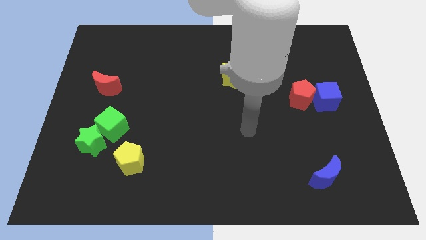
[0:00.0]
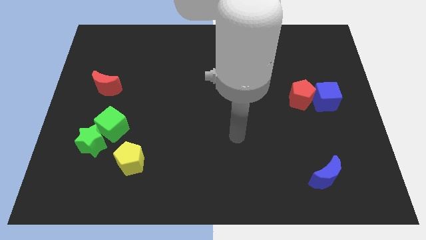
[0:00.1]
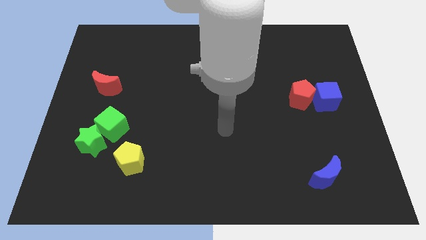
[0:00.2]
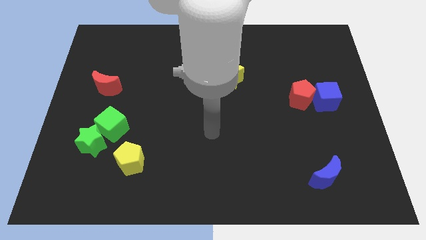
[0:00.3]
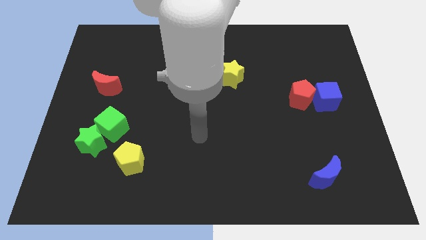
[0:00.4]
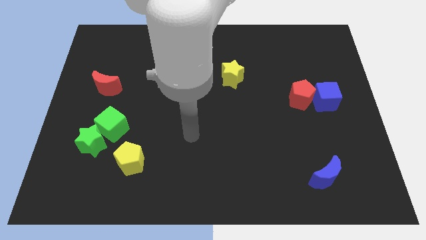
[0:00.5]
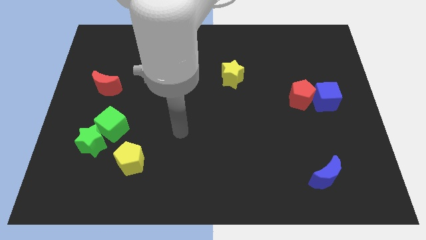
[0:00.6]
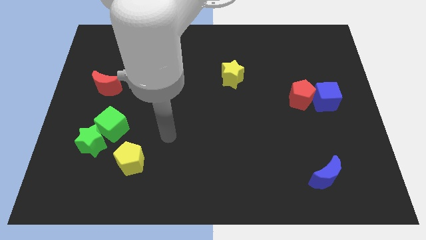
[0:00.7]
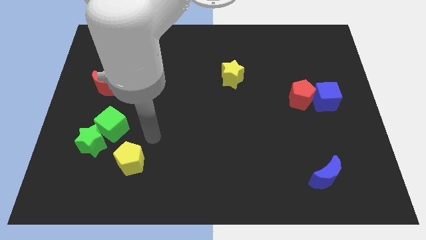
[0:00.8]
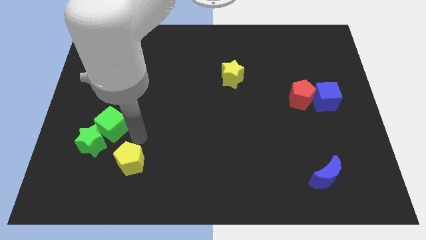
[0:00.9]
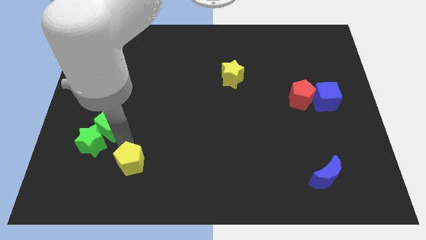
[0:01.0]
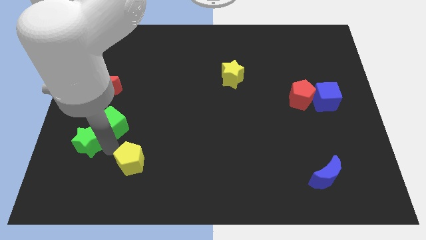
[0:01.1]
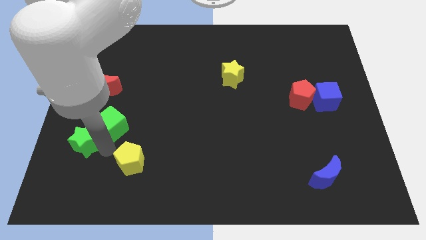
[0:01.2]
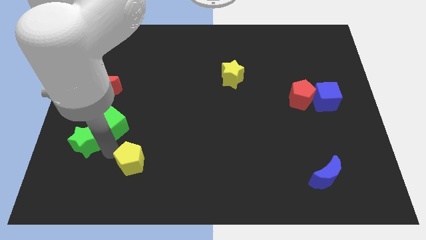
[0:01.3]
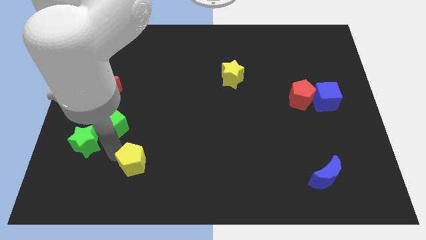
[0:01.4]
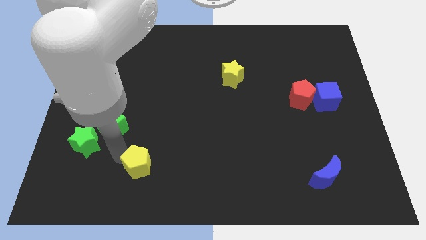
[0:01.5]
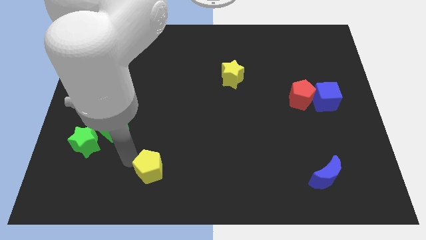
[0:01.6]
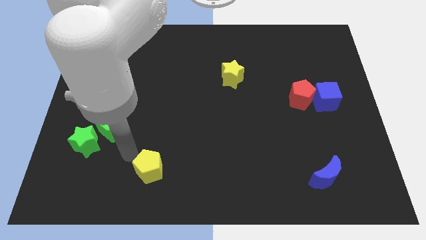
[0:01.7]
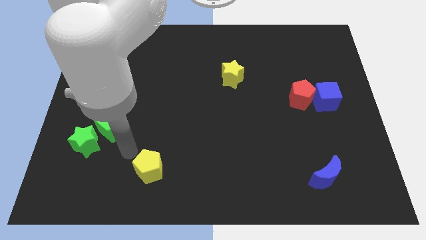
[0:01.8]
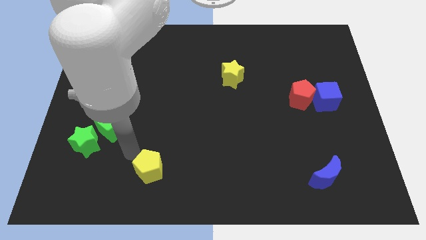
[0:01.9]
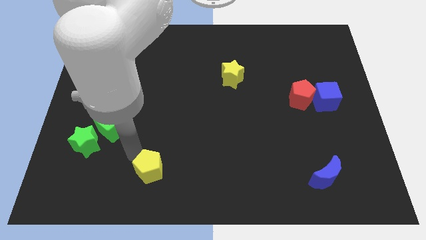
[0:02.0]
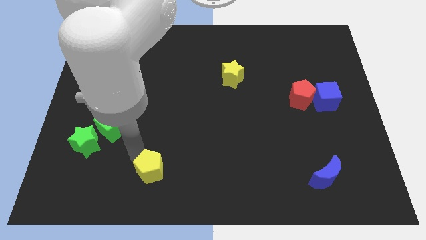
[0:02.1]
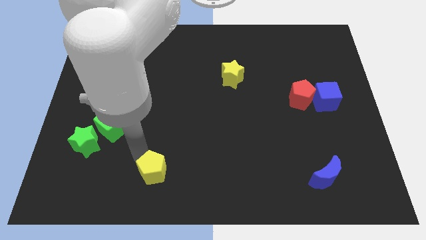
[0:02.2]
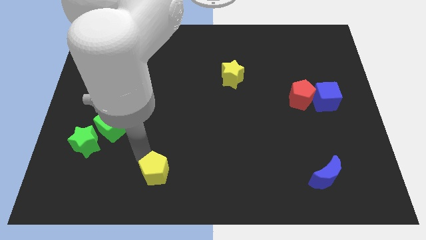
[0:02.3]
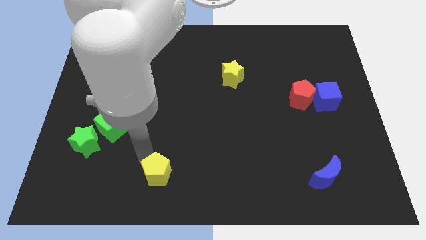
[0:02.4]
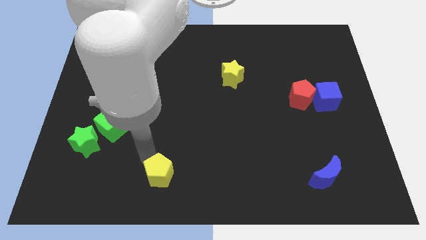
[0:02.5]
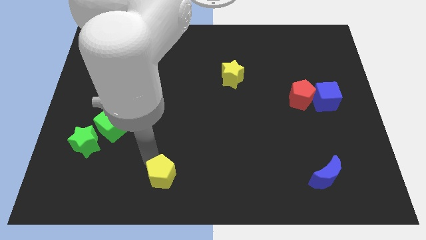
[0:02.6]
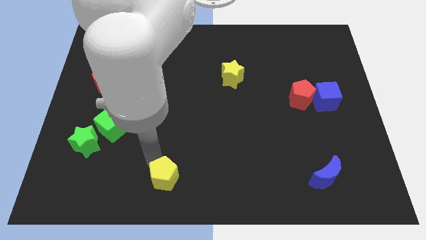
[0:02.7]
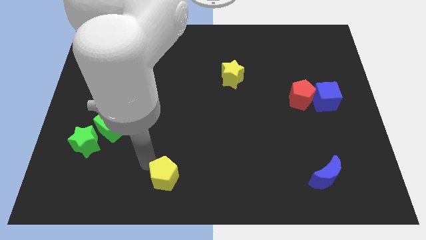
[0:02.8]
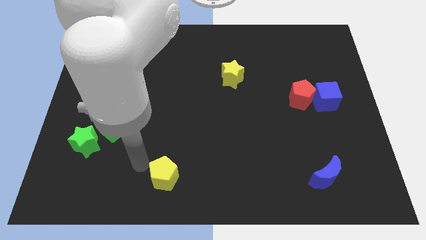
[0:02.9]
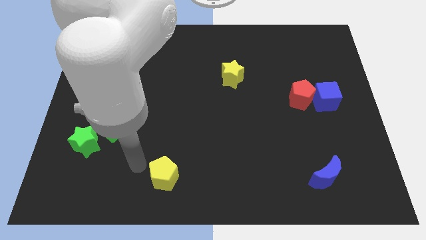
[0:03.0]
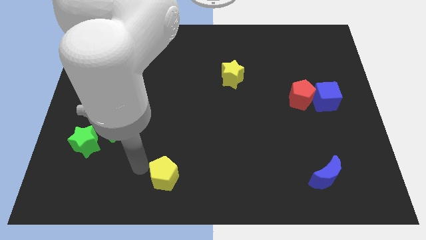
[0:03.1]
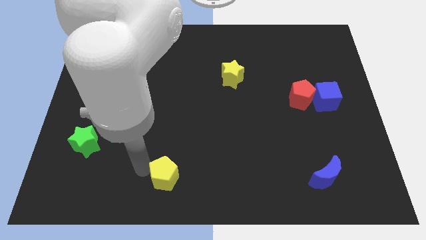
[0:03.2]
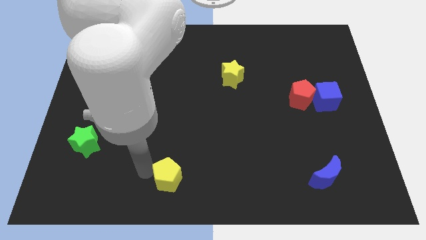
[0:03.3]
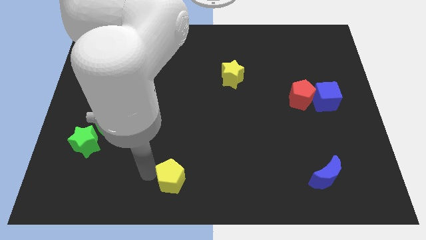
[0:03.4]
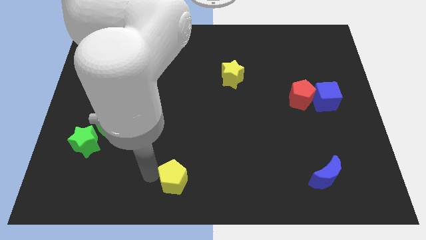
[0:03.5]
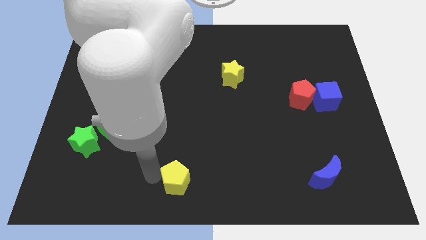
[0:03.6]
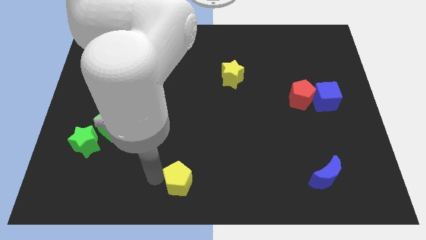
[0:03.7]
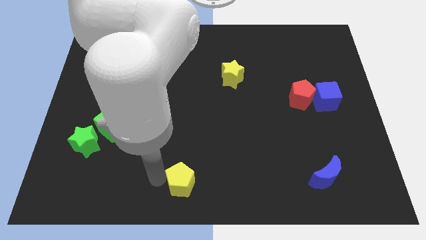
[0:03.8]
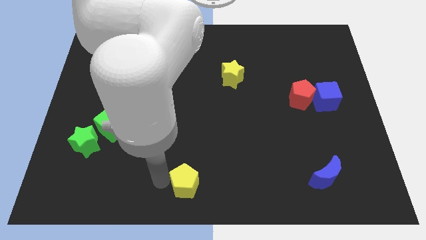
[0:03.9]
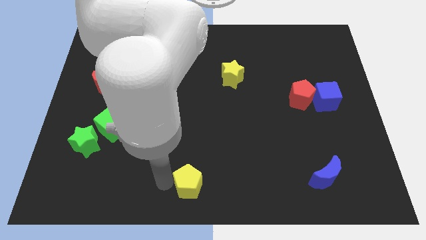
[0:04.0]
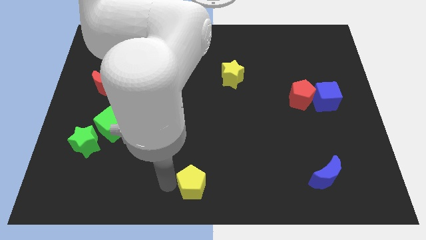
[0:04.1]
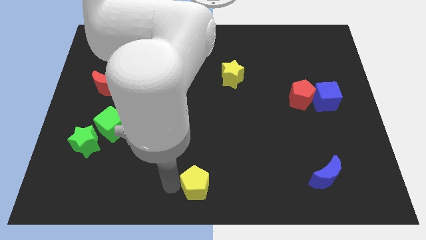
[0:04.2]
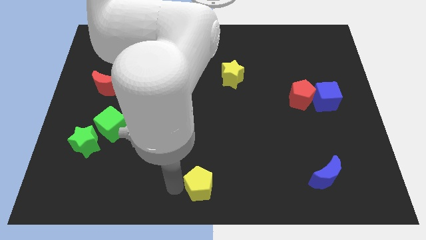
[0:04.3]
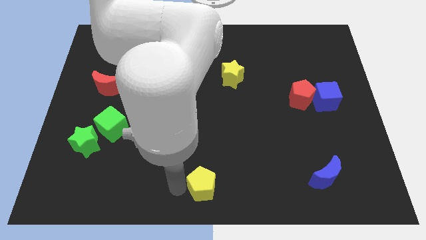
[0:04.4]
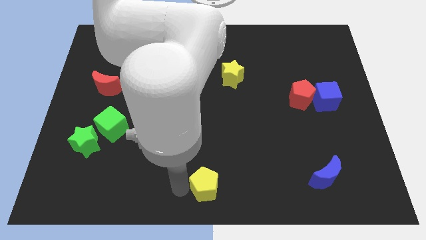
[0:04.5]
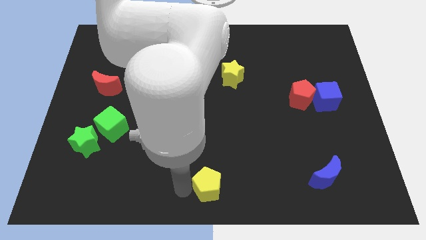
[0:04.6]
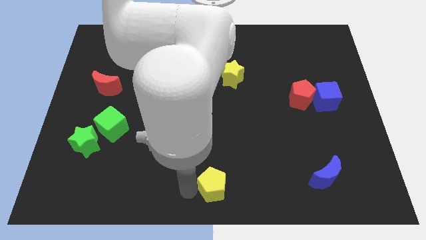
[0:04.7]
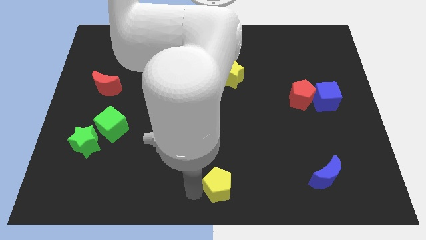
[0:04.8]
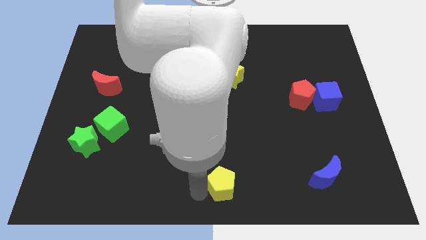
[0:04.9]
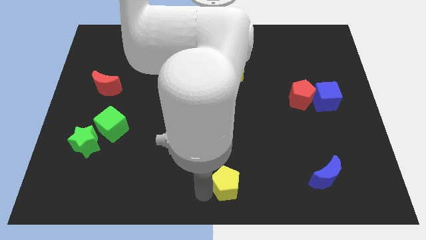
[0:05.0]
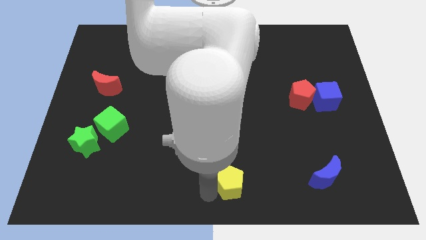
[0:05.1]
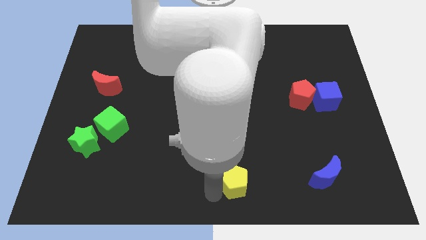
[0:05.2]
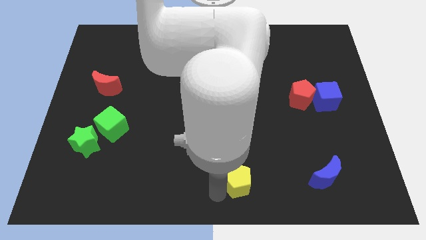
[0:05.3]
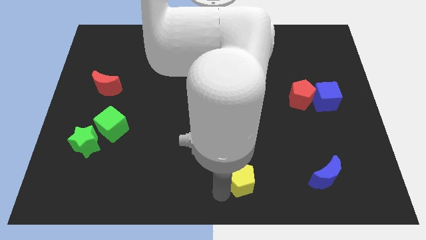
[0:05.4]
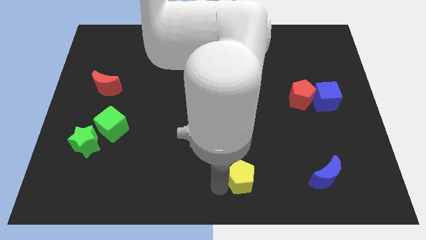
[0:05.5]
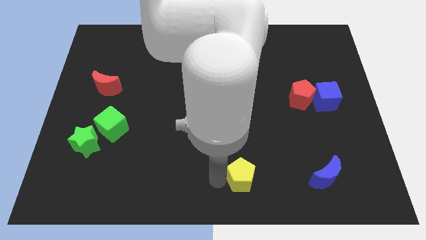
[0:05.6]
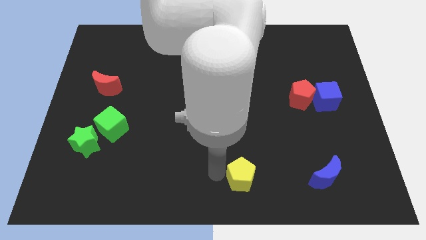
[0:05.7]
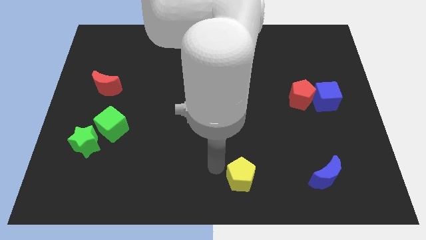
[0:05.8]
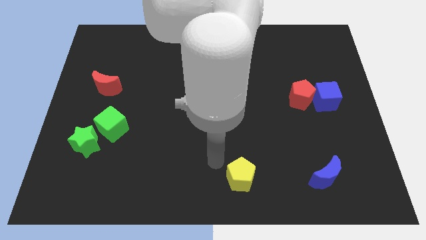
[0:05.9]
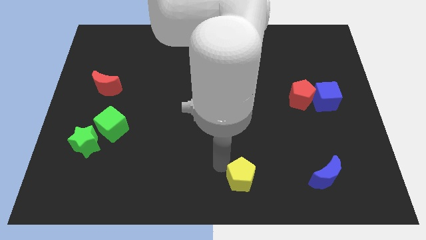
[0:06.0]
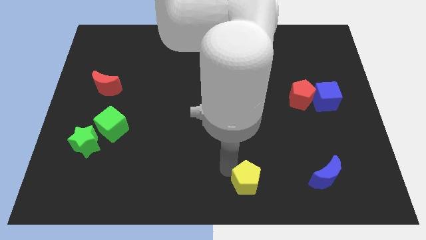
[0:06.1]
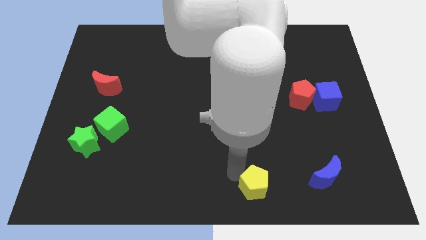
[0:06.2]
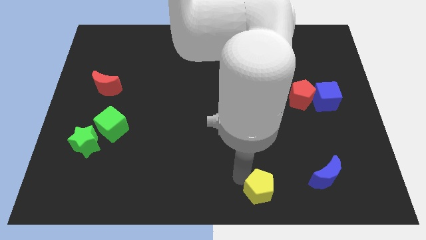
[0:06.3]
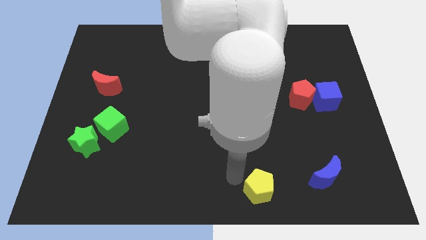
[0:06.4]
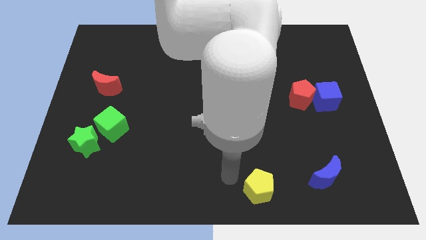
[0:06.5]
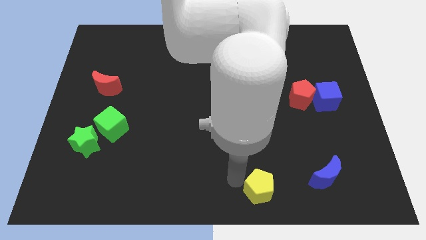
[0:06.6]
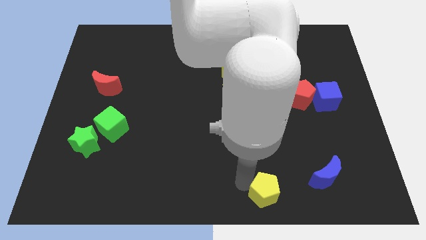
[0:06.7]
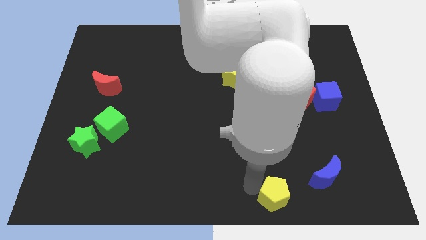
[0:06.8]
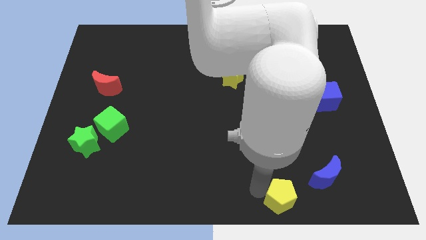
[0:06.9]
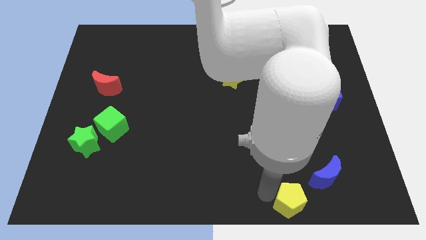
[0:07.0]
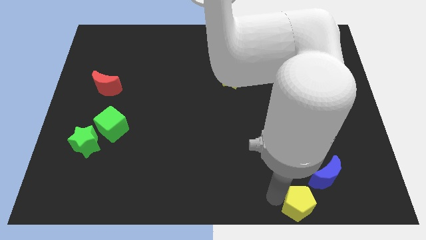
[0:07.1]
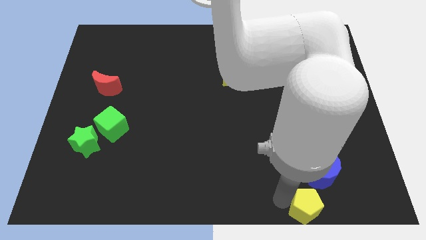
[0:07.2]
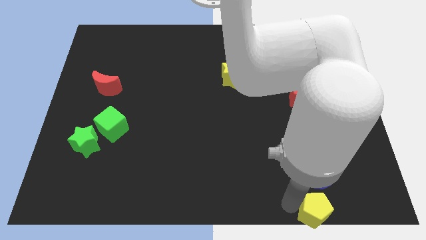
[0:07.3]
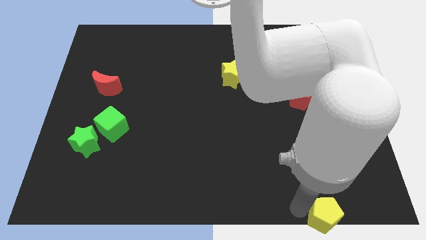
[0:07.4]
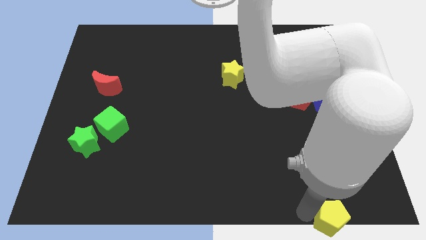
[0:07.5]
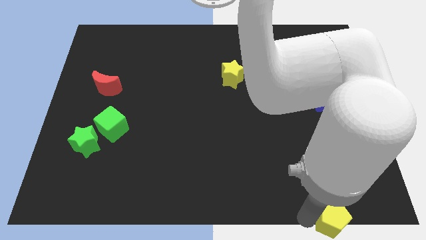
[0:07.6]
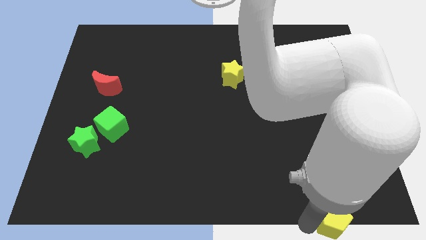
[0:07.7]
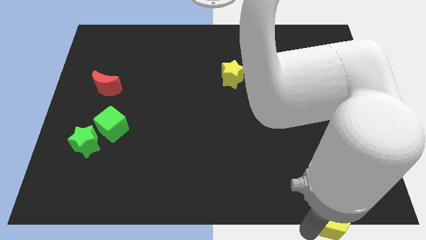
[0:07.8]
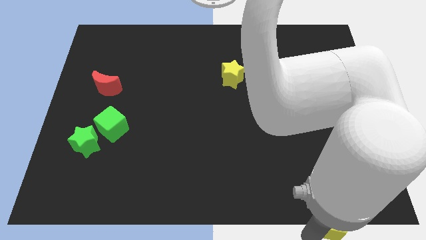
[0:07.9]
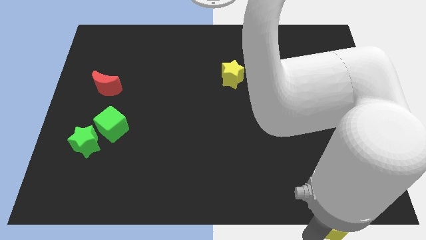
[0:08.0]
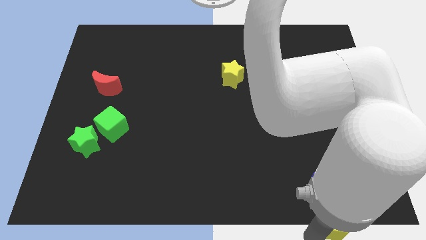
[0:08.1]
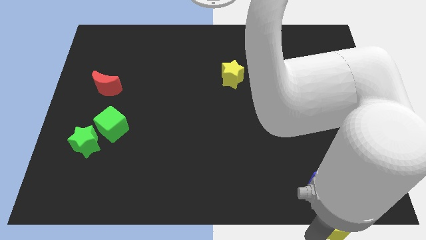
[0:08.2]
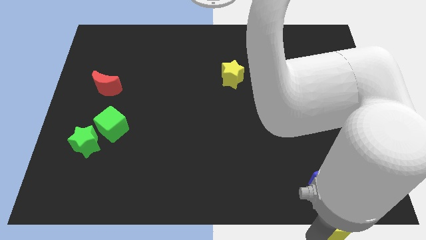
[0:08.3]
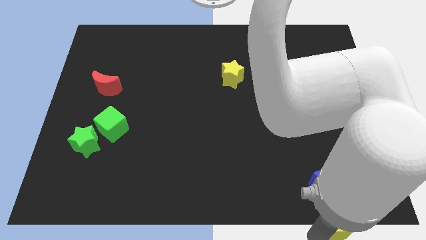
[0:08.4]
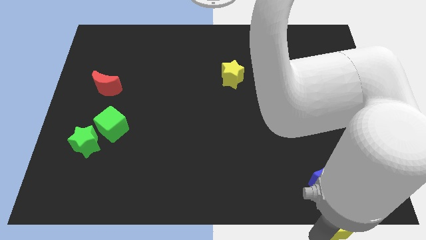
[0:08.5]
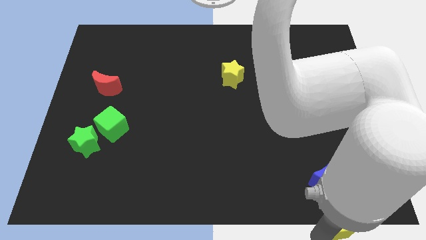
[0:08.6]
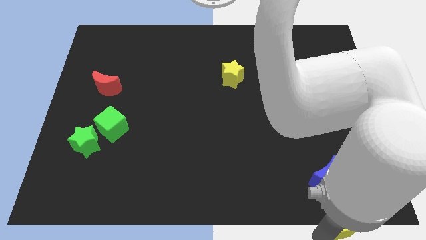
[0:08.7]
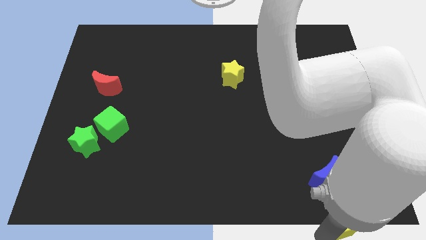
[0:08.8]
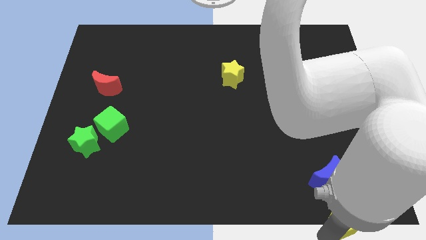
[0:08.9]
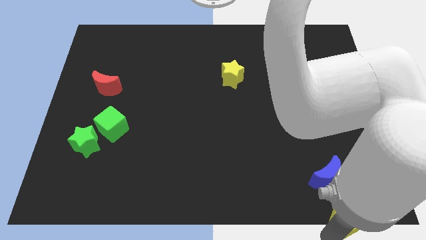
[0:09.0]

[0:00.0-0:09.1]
put the yellow pentagon to the bottom right corner
